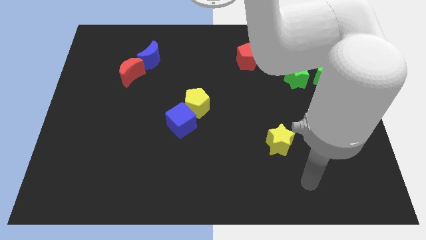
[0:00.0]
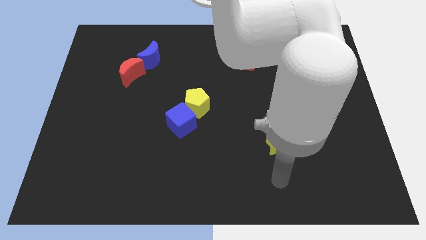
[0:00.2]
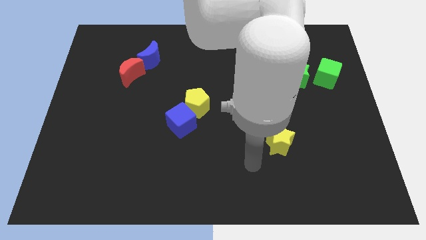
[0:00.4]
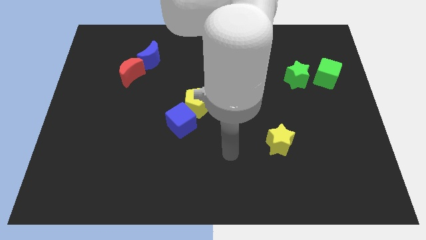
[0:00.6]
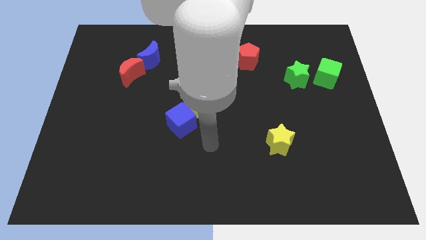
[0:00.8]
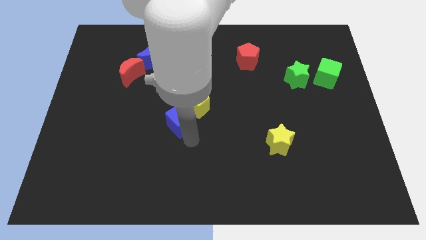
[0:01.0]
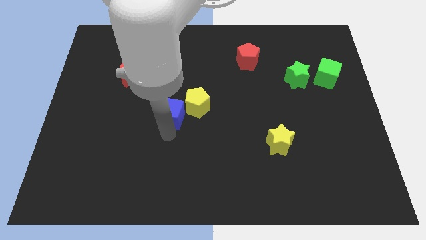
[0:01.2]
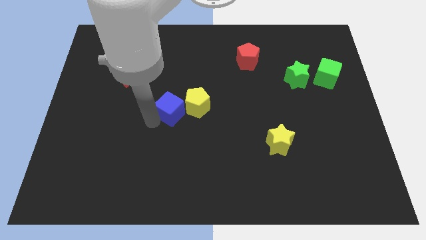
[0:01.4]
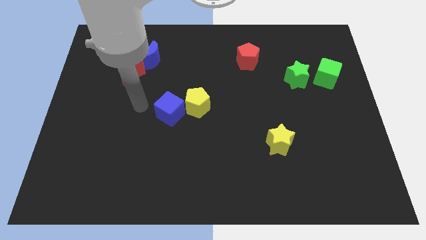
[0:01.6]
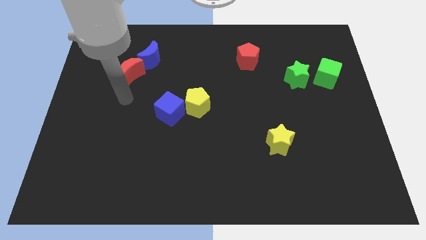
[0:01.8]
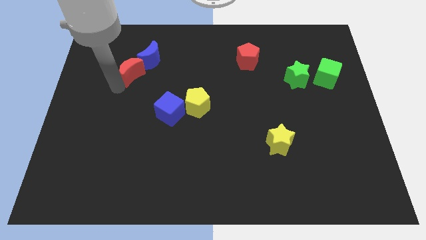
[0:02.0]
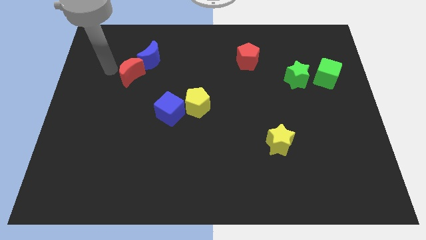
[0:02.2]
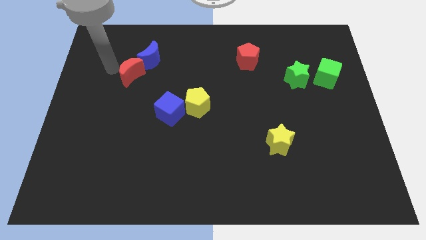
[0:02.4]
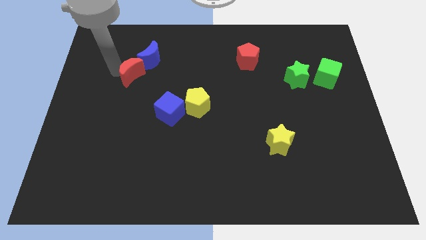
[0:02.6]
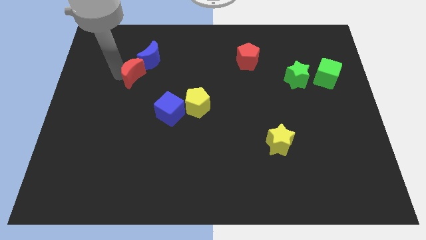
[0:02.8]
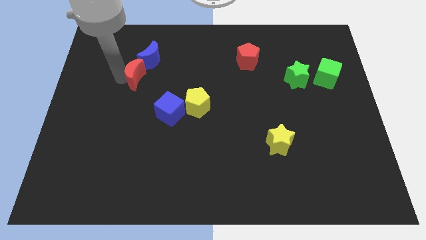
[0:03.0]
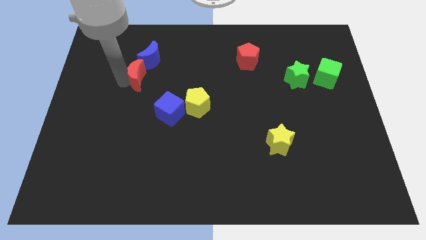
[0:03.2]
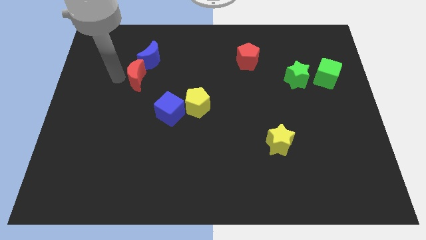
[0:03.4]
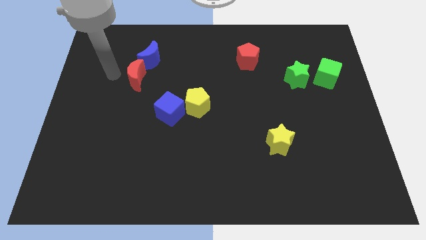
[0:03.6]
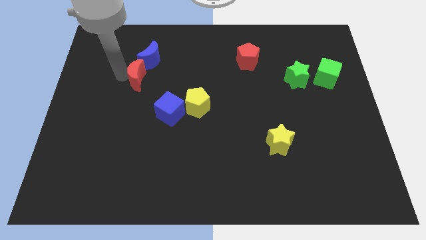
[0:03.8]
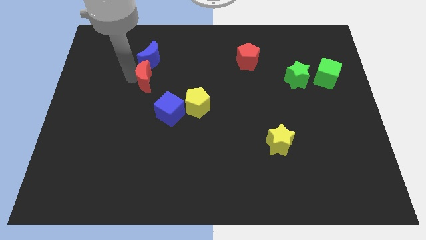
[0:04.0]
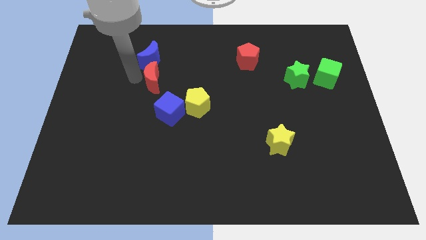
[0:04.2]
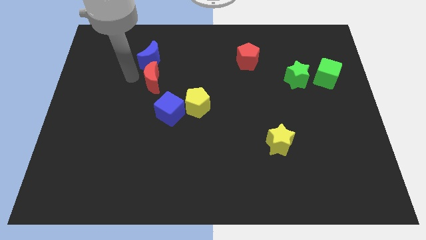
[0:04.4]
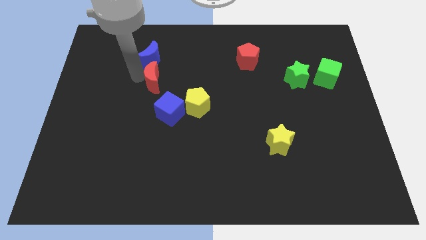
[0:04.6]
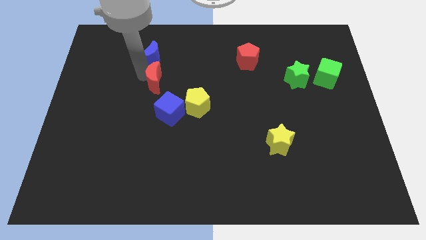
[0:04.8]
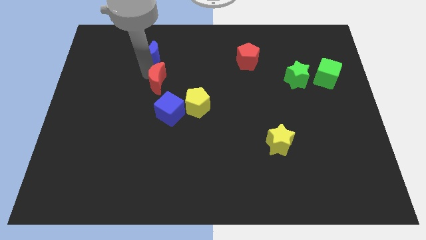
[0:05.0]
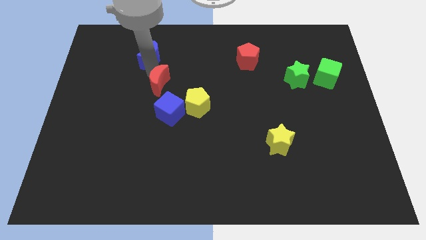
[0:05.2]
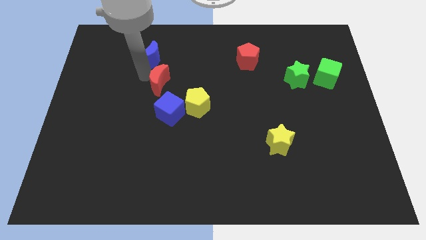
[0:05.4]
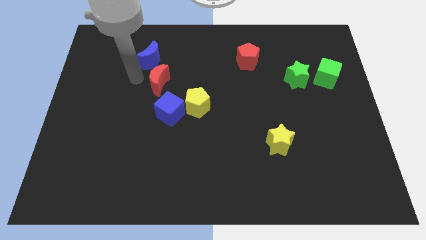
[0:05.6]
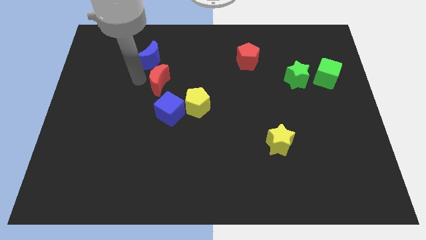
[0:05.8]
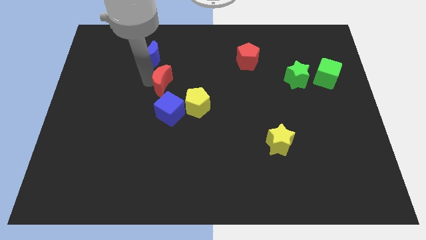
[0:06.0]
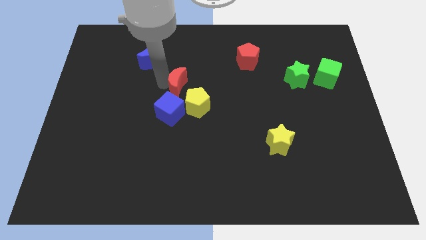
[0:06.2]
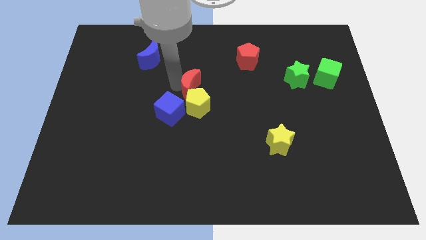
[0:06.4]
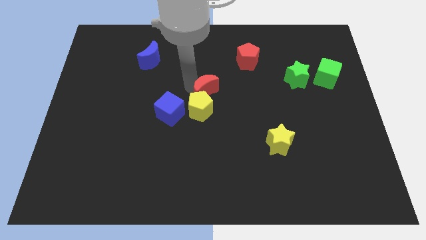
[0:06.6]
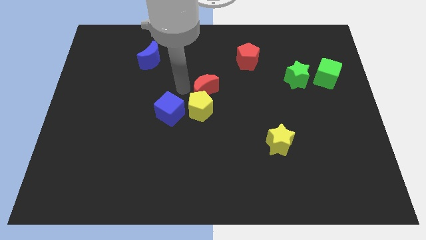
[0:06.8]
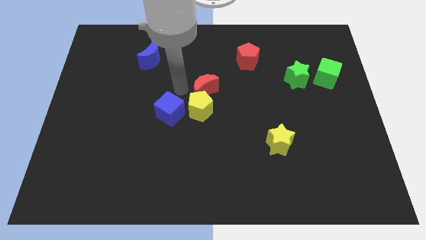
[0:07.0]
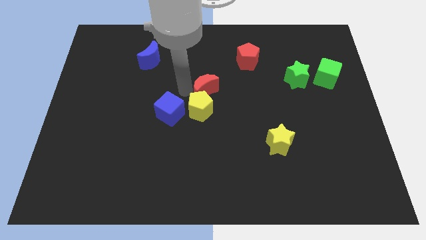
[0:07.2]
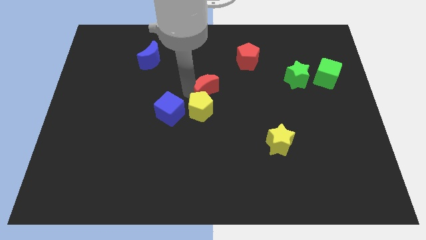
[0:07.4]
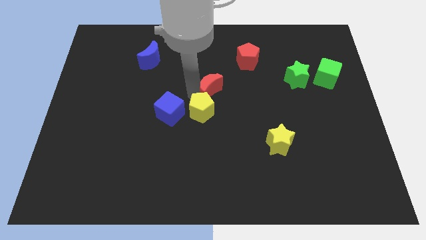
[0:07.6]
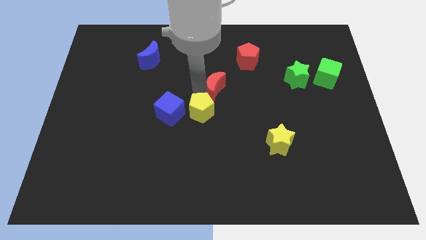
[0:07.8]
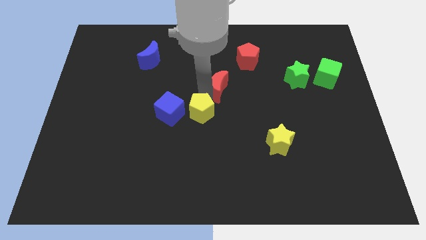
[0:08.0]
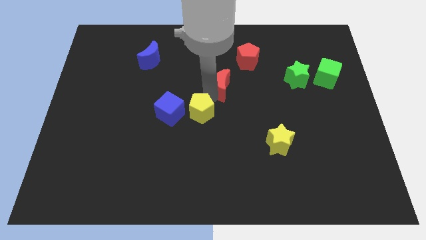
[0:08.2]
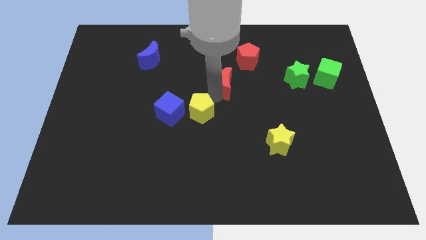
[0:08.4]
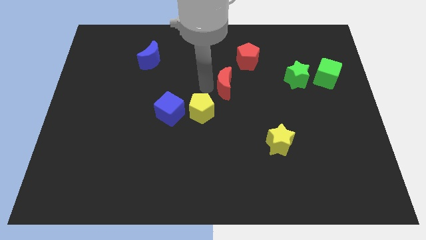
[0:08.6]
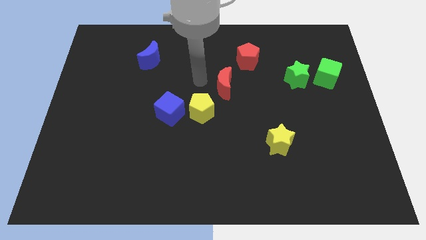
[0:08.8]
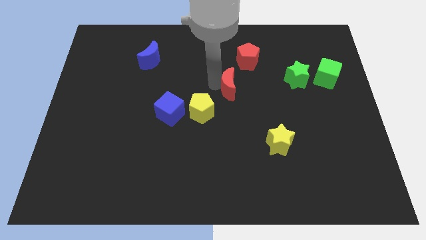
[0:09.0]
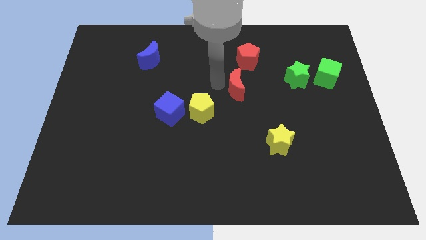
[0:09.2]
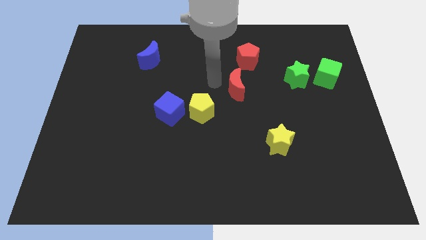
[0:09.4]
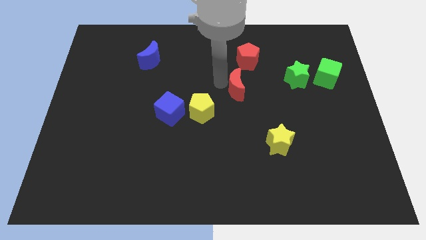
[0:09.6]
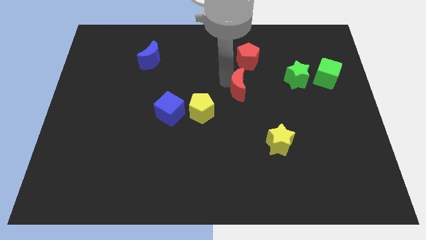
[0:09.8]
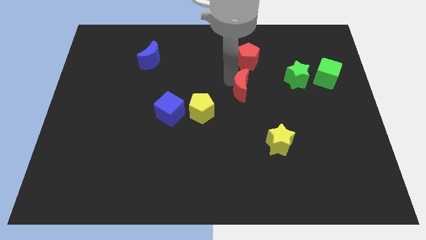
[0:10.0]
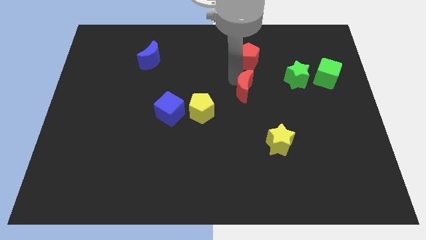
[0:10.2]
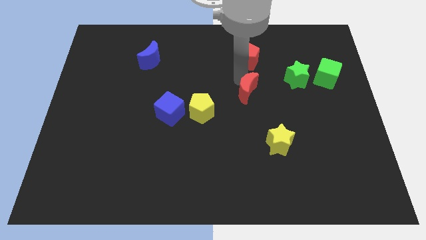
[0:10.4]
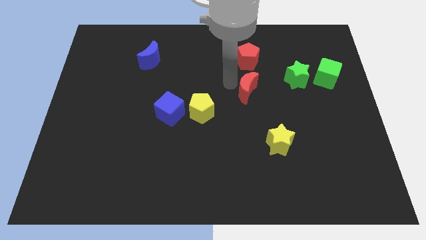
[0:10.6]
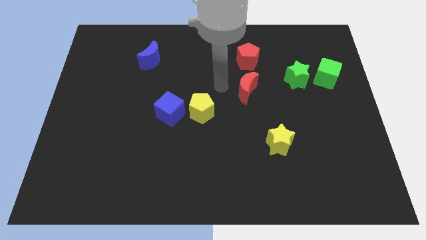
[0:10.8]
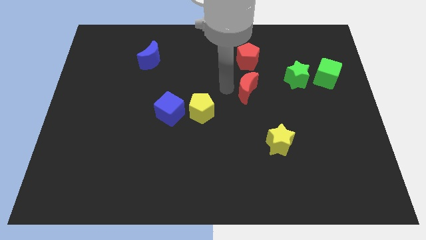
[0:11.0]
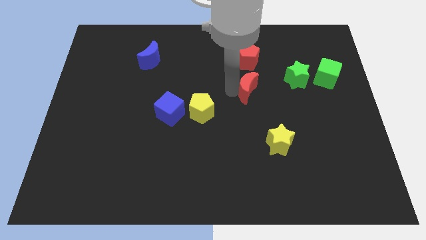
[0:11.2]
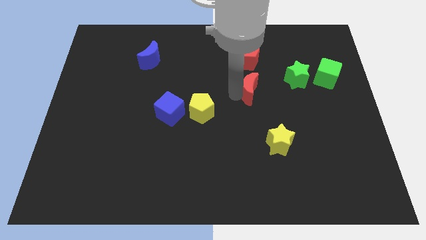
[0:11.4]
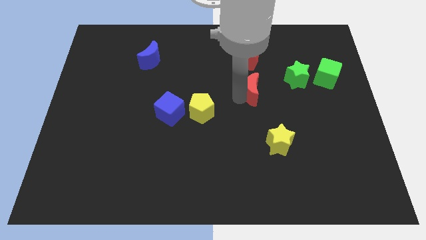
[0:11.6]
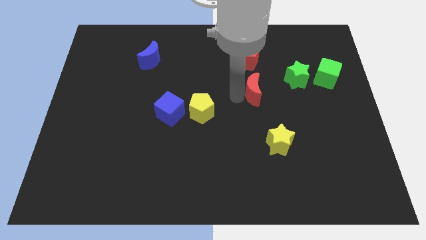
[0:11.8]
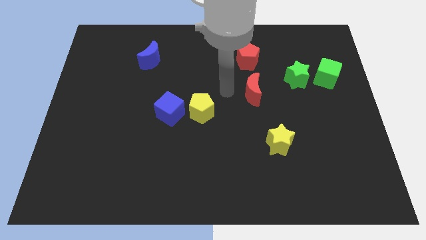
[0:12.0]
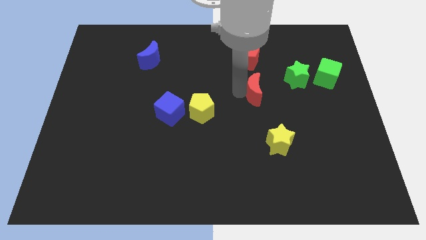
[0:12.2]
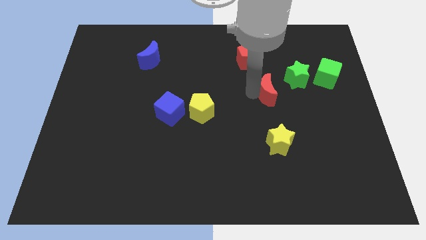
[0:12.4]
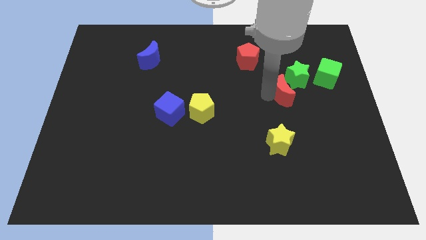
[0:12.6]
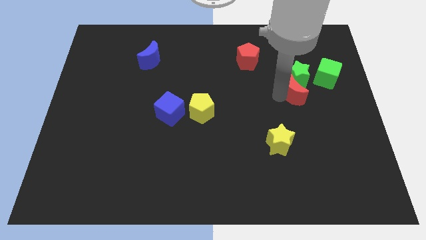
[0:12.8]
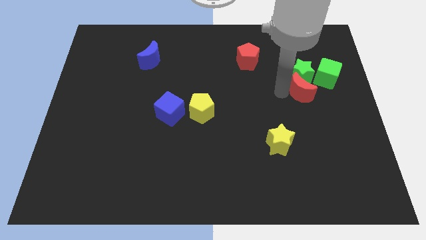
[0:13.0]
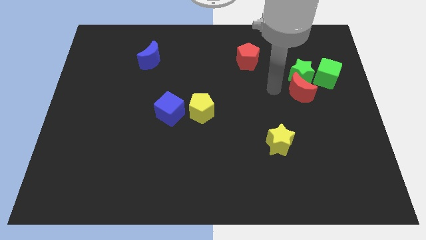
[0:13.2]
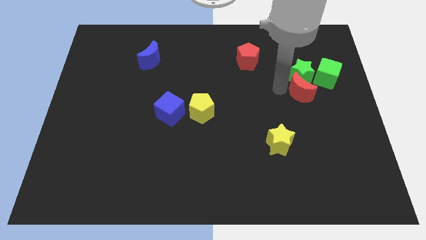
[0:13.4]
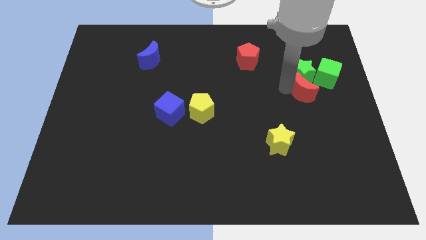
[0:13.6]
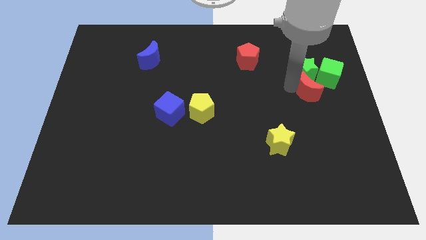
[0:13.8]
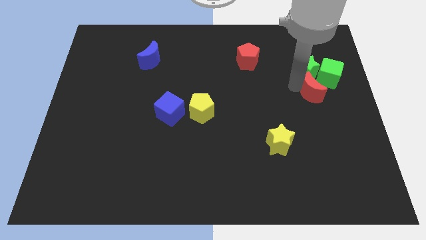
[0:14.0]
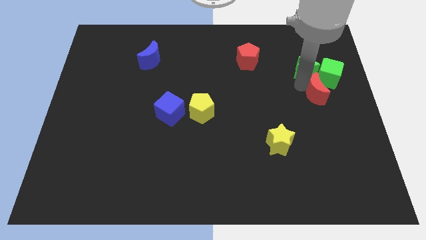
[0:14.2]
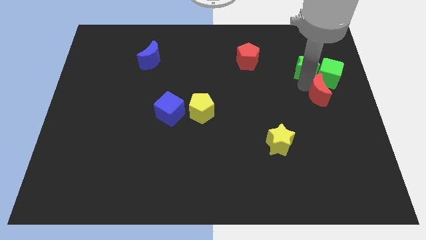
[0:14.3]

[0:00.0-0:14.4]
put the red moon to the center right

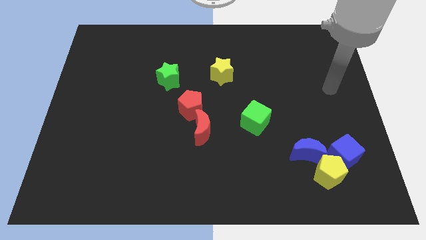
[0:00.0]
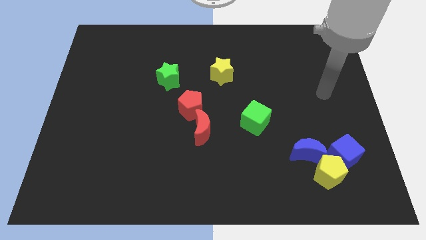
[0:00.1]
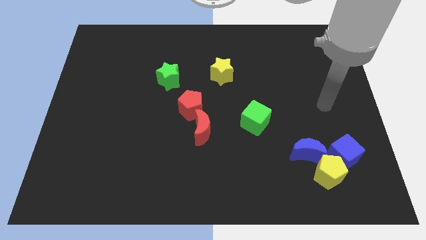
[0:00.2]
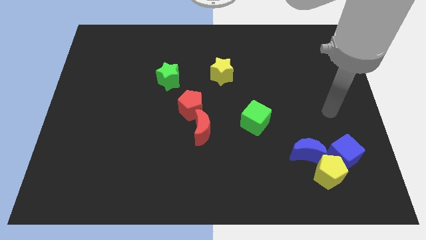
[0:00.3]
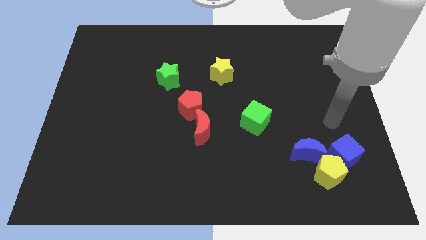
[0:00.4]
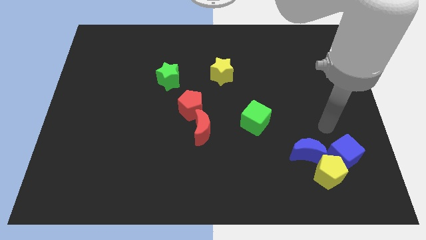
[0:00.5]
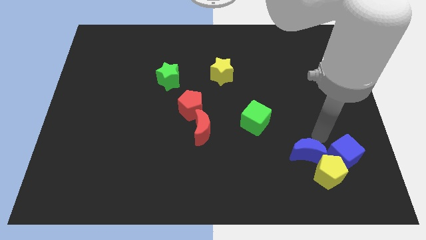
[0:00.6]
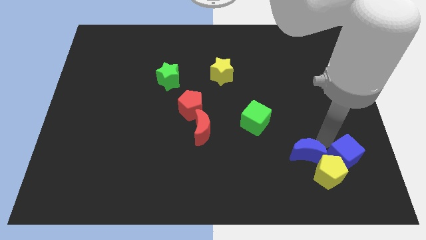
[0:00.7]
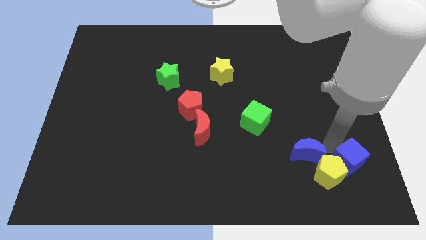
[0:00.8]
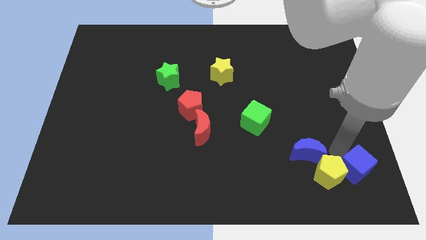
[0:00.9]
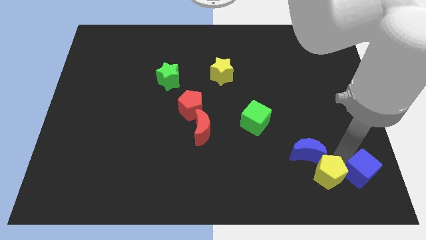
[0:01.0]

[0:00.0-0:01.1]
put the blue cube to the bottom right
